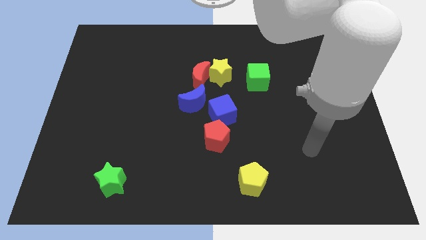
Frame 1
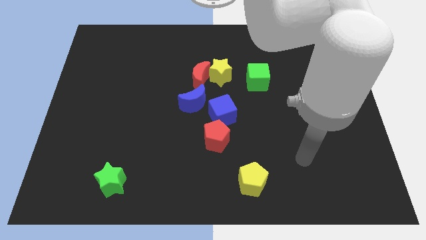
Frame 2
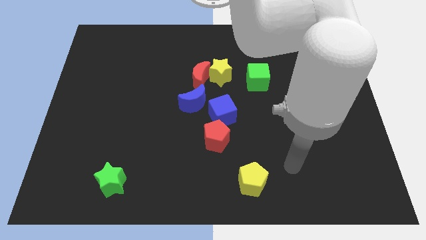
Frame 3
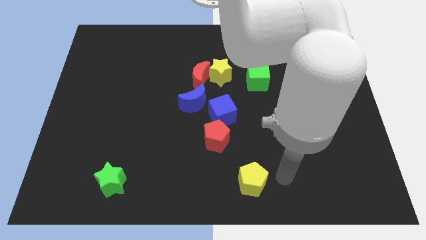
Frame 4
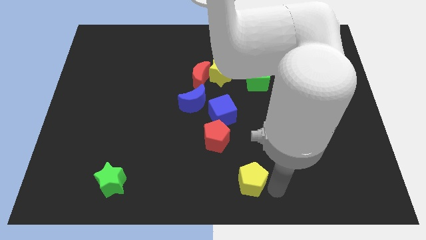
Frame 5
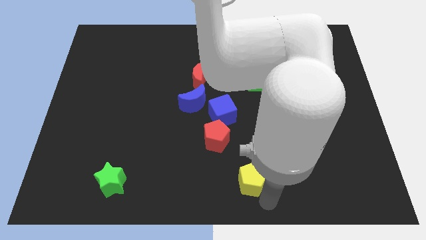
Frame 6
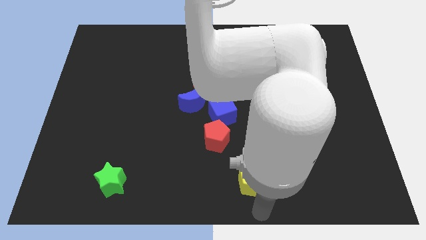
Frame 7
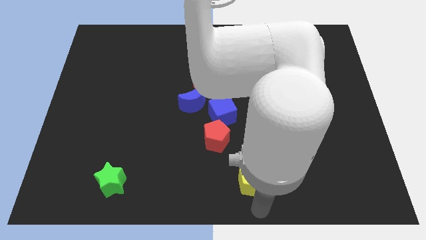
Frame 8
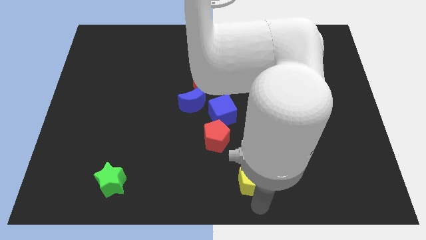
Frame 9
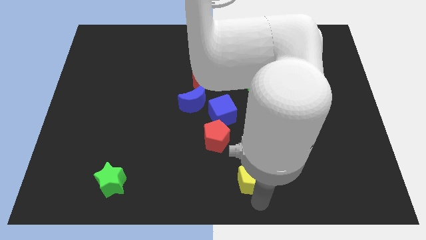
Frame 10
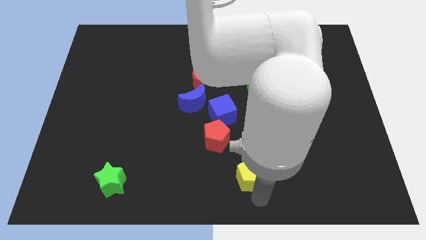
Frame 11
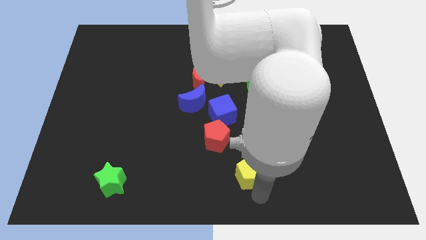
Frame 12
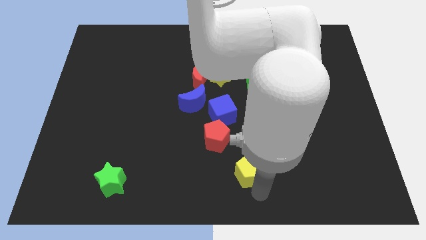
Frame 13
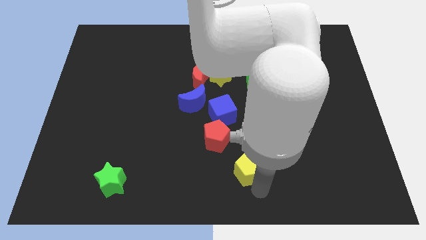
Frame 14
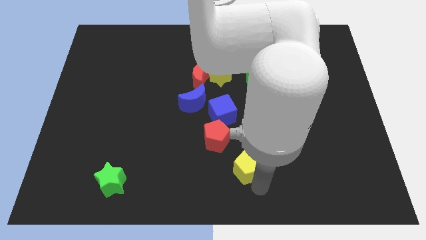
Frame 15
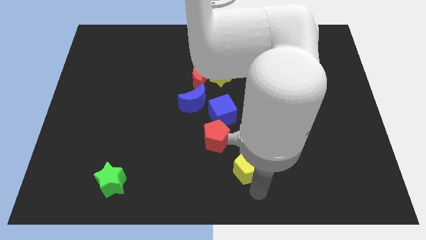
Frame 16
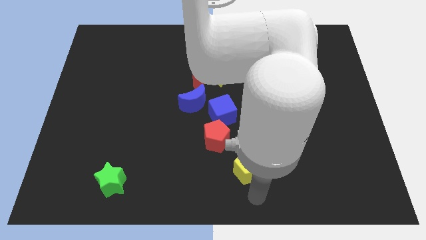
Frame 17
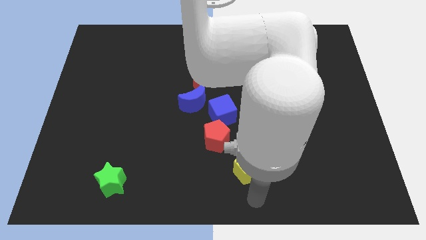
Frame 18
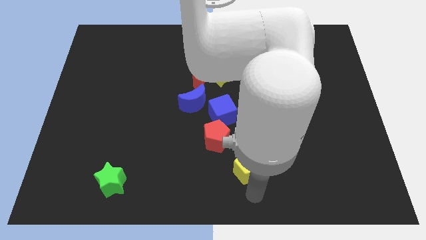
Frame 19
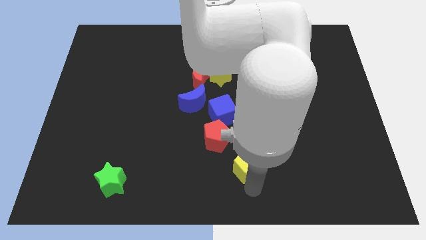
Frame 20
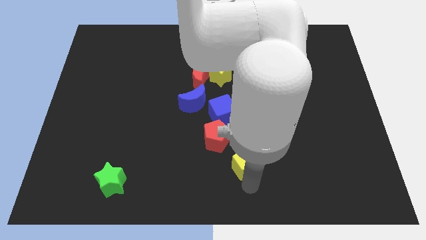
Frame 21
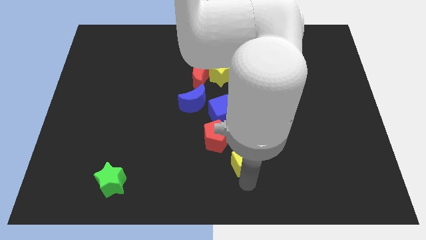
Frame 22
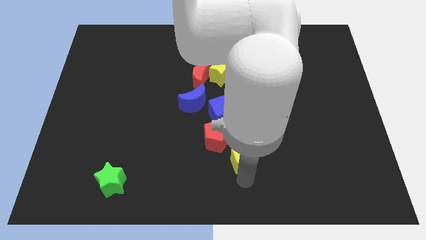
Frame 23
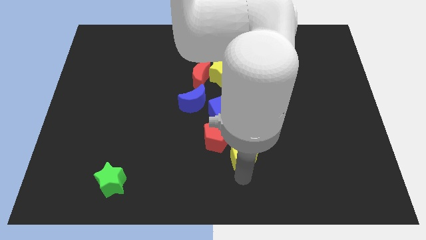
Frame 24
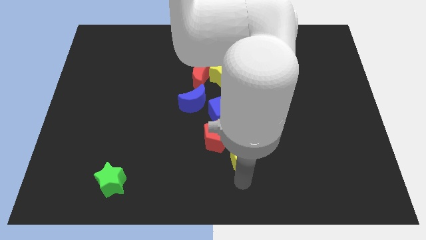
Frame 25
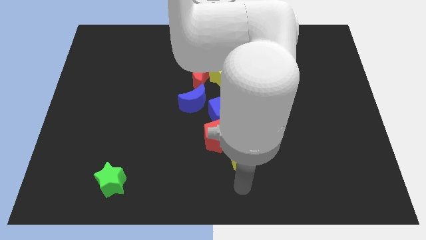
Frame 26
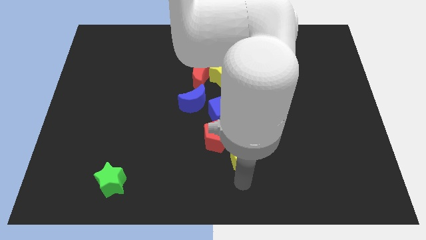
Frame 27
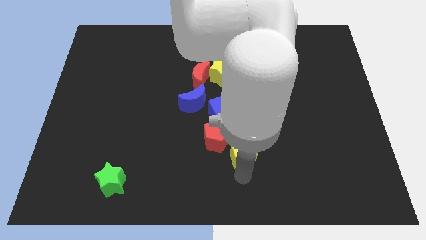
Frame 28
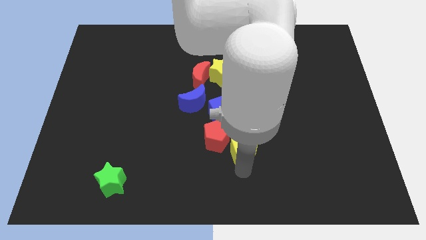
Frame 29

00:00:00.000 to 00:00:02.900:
slightly move the yellow pentagon up

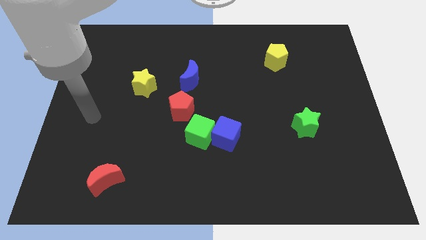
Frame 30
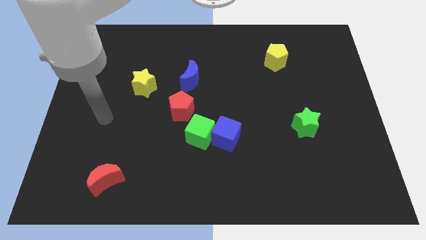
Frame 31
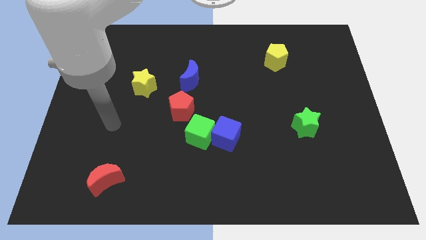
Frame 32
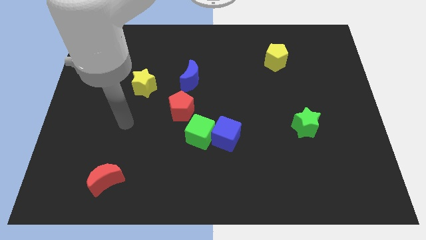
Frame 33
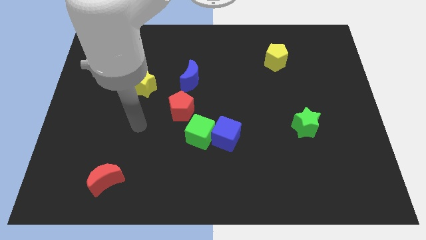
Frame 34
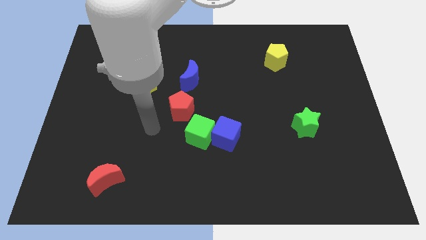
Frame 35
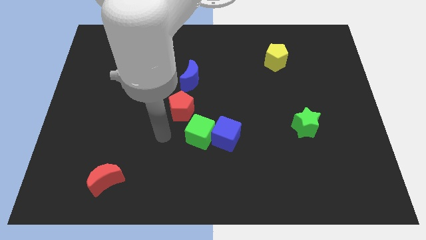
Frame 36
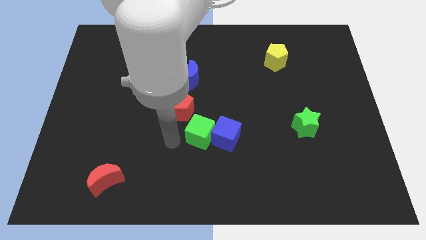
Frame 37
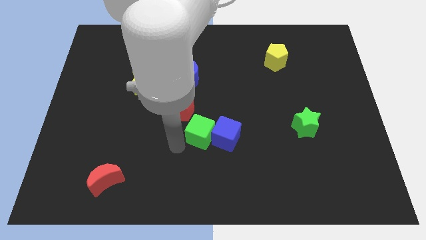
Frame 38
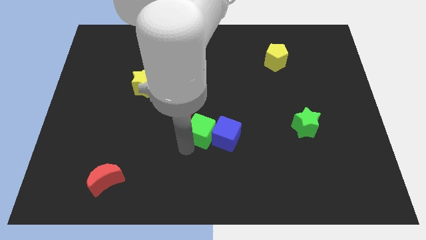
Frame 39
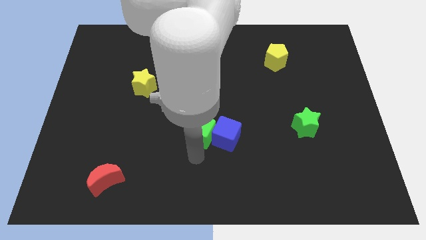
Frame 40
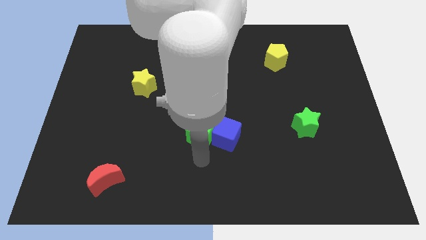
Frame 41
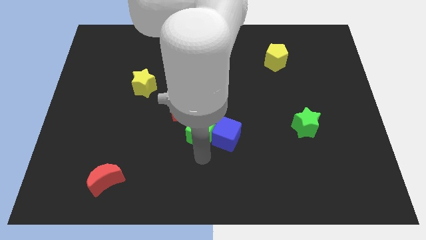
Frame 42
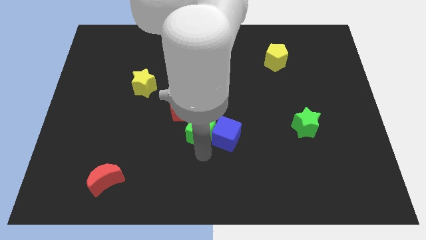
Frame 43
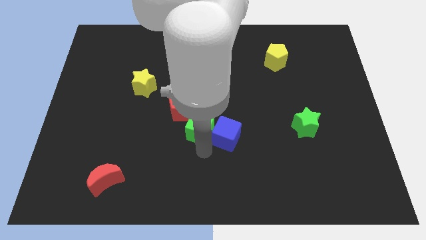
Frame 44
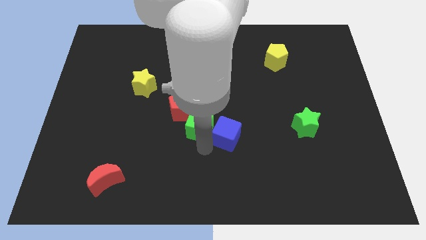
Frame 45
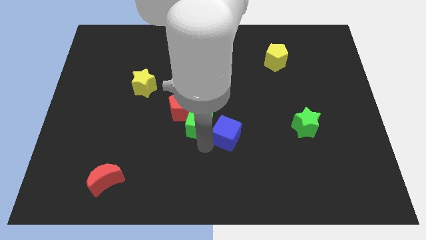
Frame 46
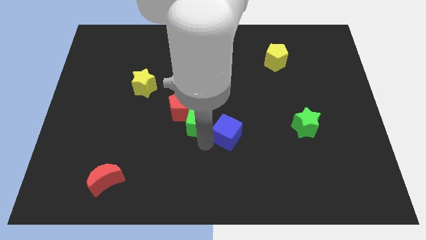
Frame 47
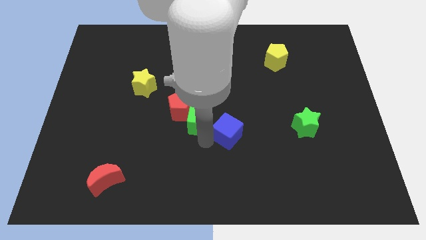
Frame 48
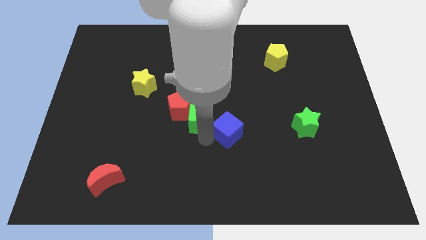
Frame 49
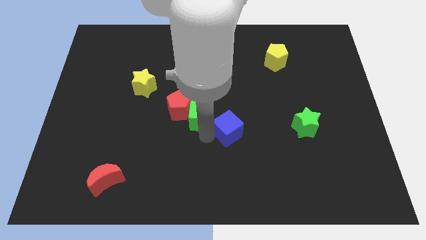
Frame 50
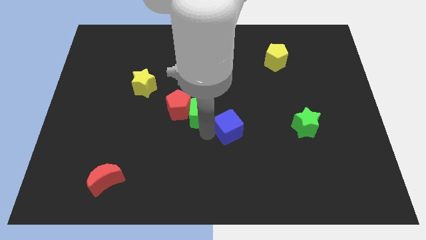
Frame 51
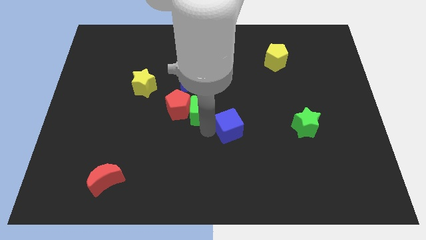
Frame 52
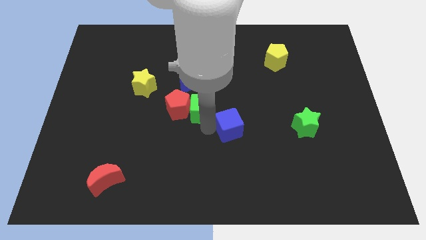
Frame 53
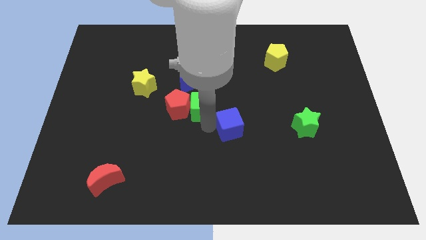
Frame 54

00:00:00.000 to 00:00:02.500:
slightly push the green cube up

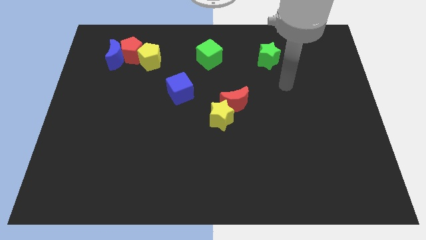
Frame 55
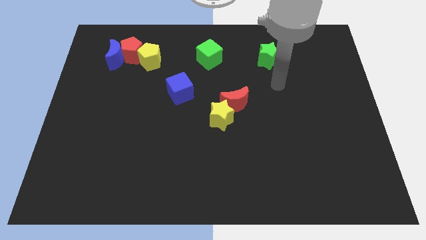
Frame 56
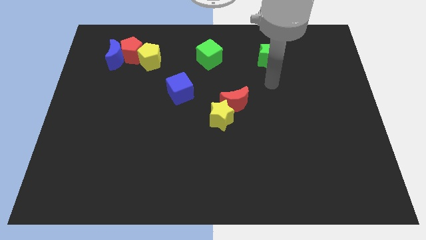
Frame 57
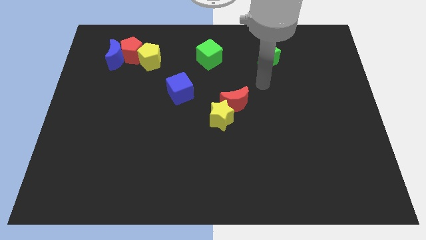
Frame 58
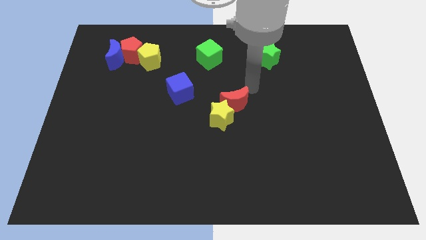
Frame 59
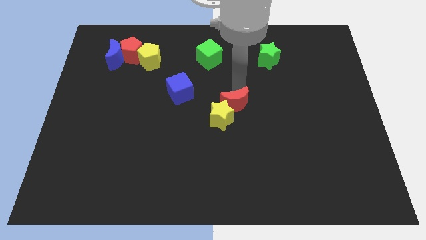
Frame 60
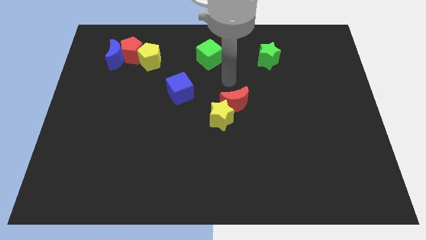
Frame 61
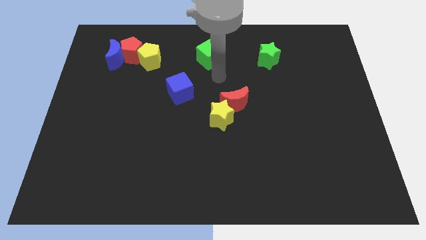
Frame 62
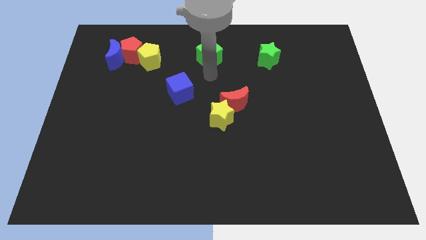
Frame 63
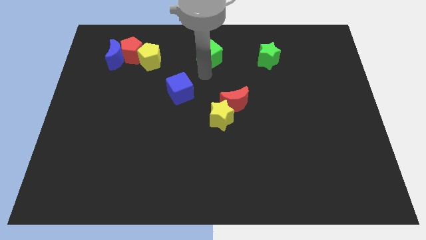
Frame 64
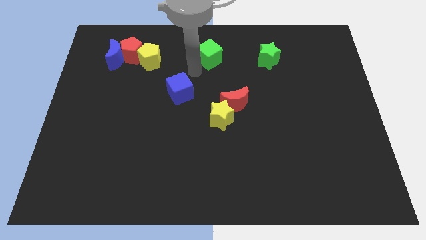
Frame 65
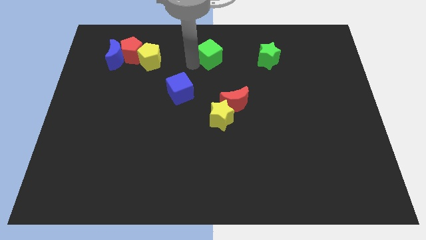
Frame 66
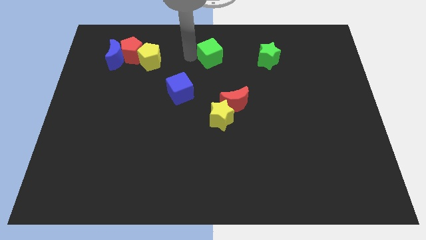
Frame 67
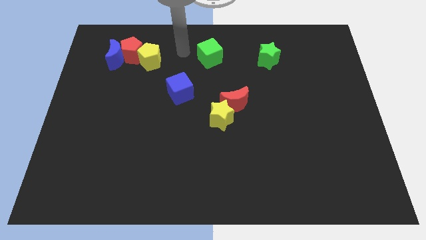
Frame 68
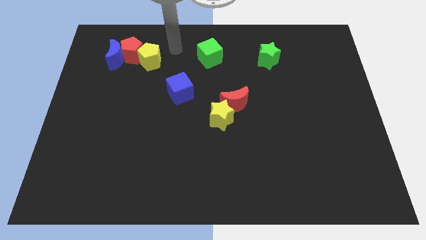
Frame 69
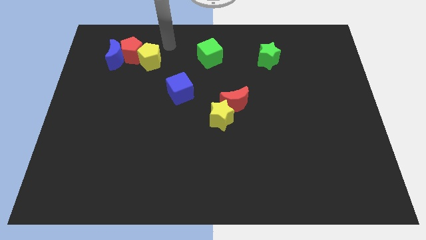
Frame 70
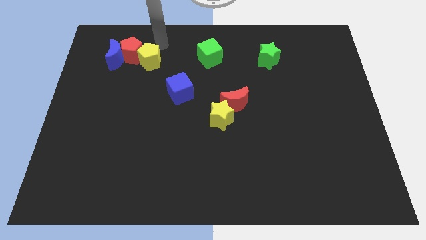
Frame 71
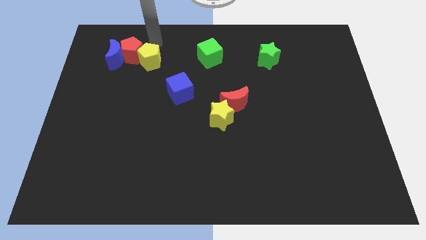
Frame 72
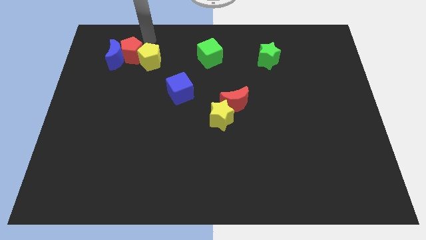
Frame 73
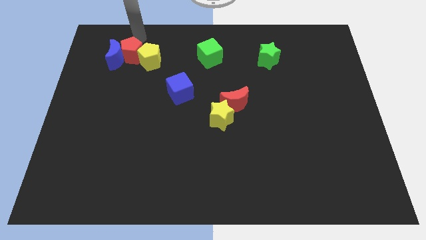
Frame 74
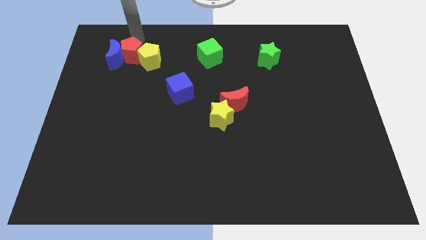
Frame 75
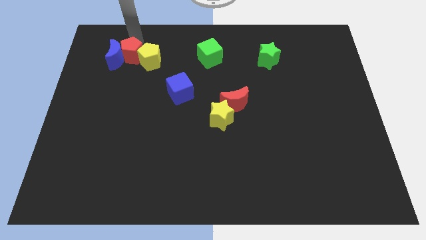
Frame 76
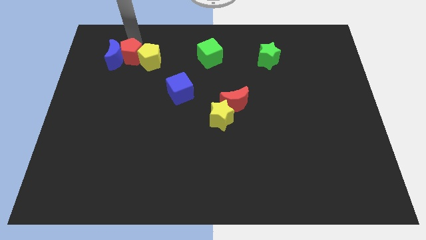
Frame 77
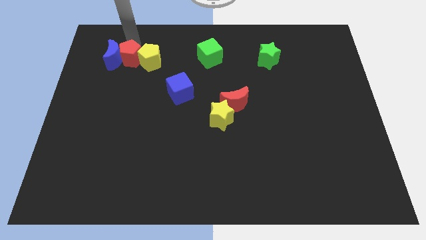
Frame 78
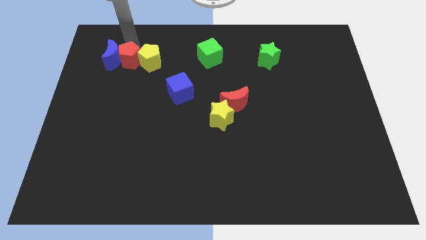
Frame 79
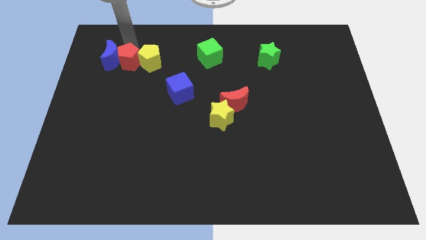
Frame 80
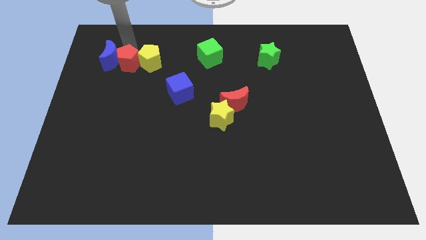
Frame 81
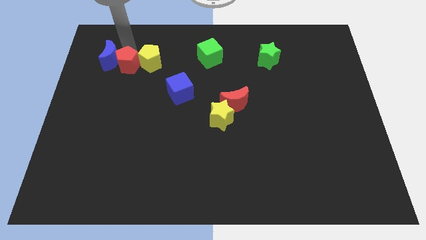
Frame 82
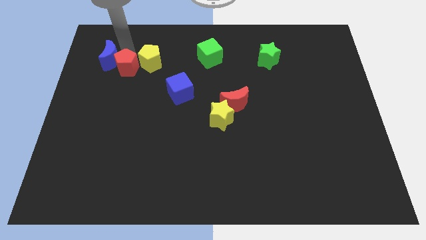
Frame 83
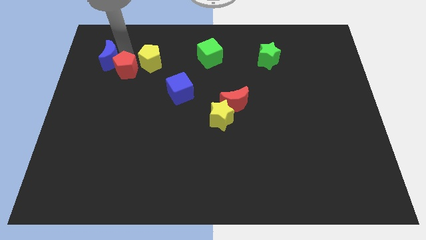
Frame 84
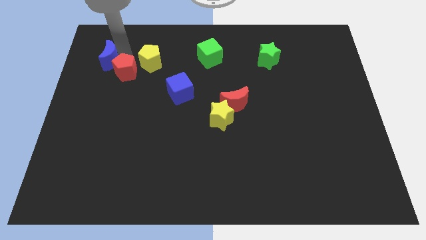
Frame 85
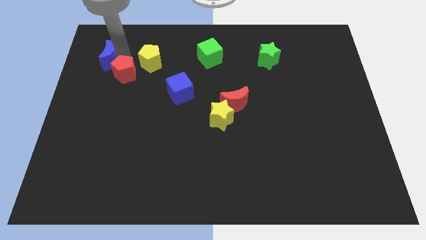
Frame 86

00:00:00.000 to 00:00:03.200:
slide the red pentagon slightly downwards
